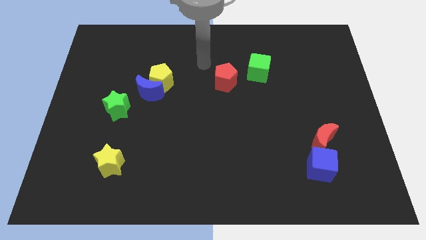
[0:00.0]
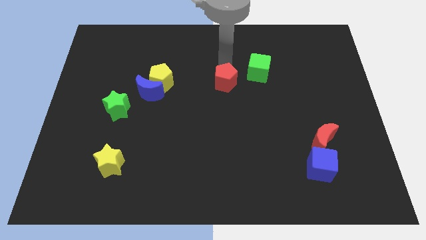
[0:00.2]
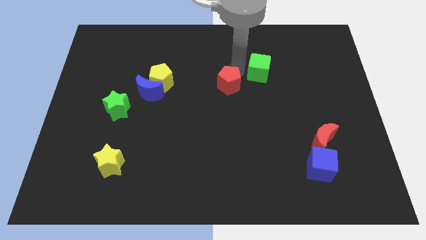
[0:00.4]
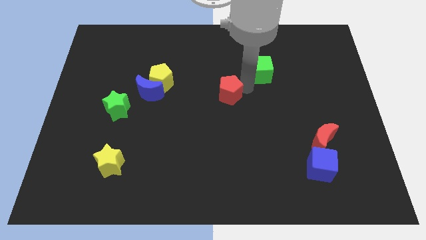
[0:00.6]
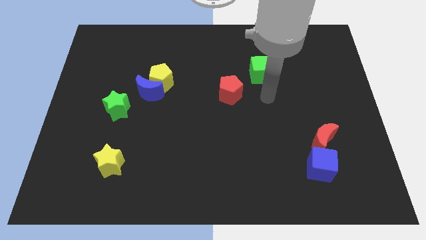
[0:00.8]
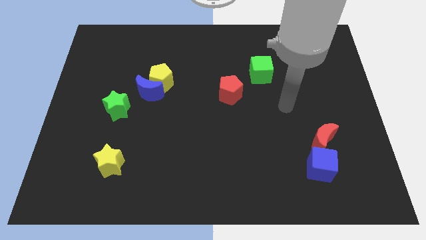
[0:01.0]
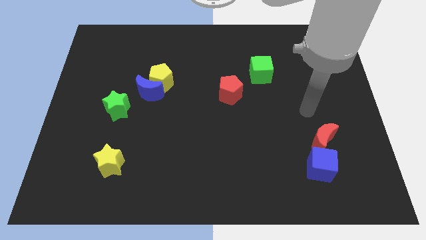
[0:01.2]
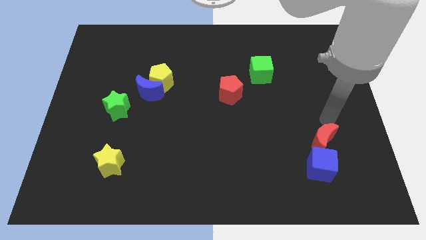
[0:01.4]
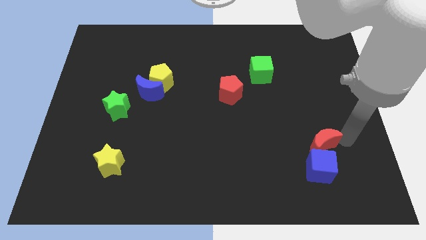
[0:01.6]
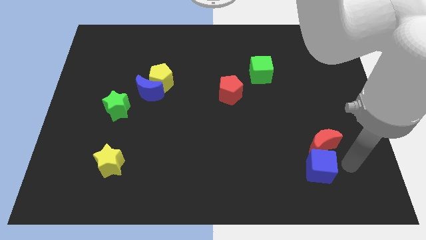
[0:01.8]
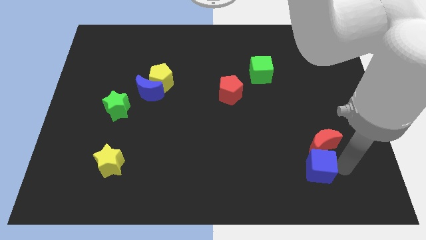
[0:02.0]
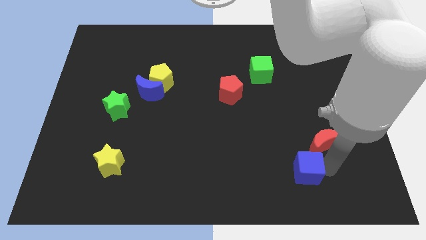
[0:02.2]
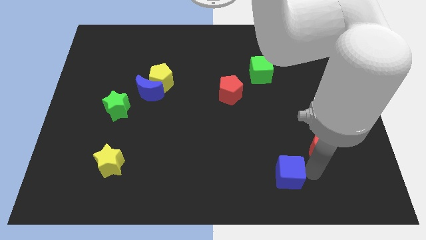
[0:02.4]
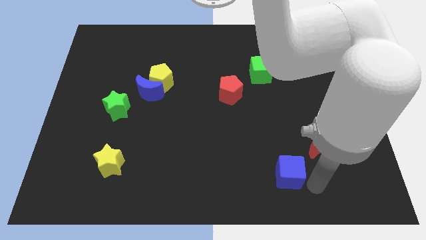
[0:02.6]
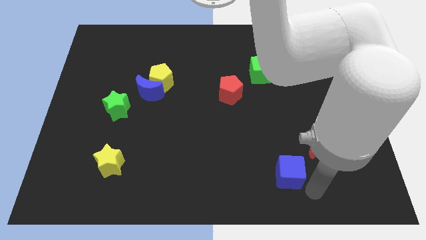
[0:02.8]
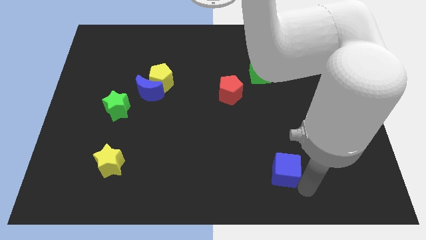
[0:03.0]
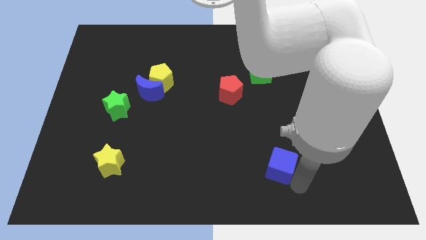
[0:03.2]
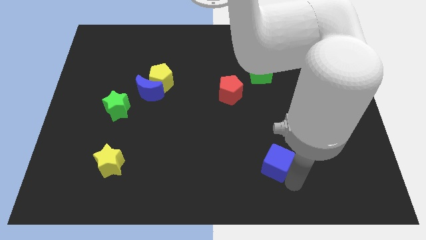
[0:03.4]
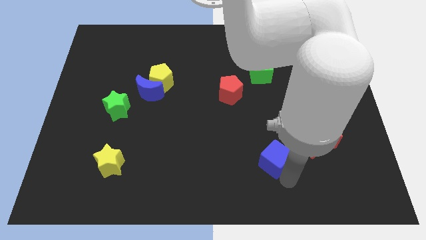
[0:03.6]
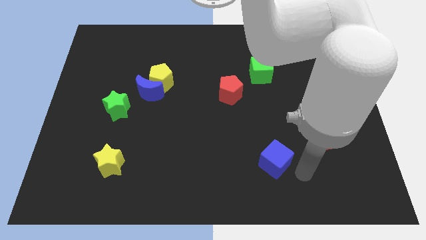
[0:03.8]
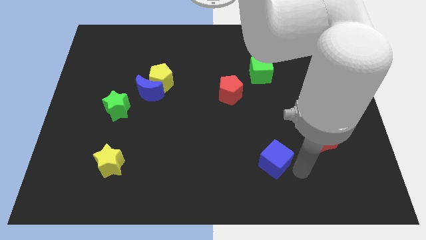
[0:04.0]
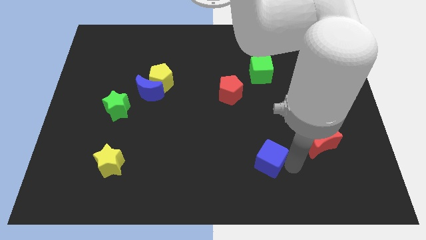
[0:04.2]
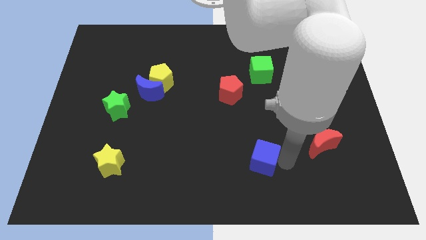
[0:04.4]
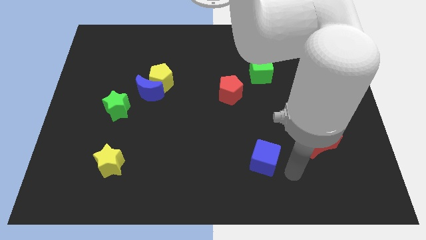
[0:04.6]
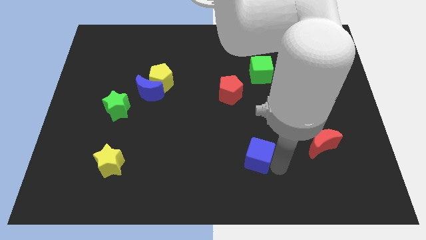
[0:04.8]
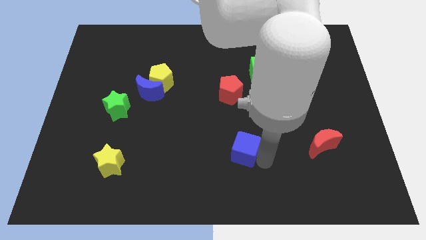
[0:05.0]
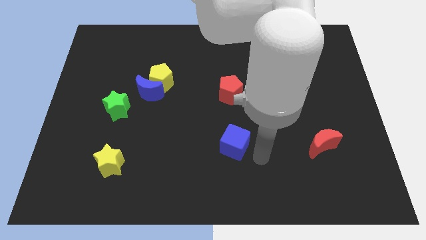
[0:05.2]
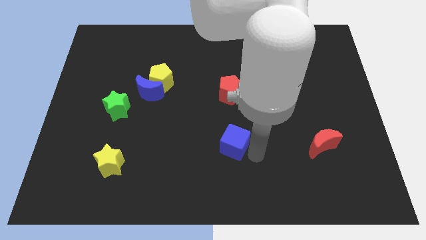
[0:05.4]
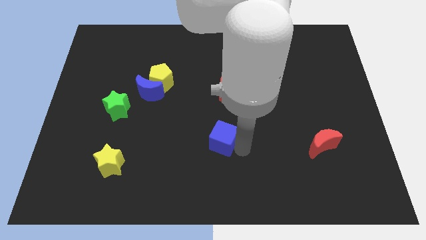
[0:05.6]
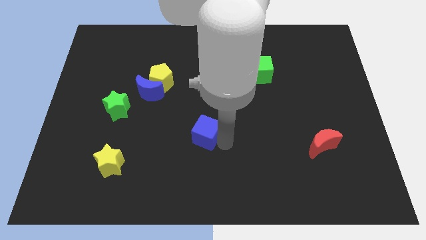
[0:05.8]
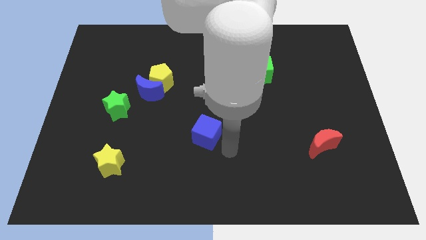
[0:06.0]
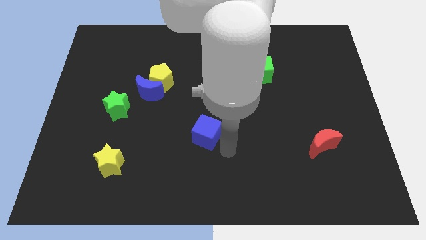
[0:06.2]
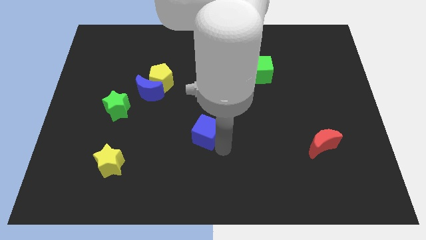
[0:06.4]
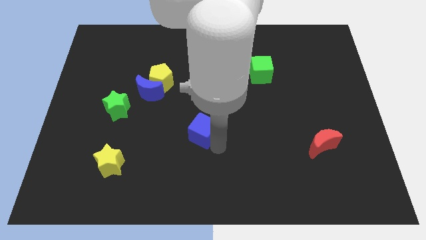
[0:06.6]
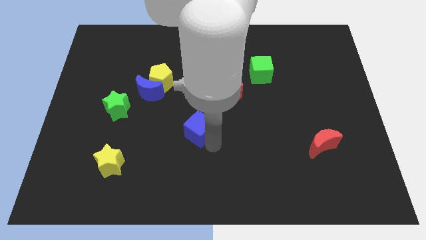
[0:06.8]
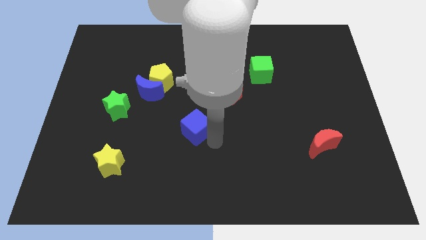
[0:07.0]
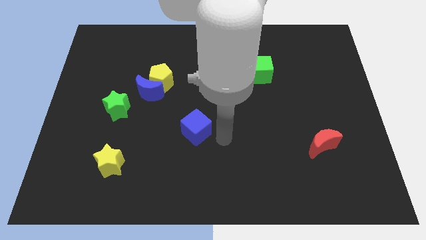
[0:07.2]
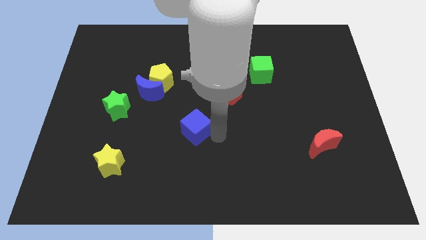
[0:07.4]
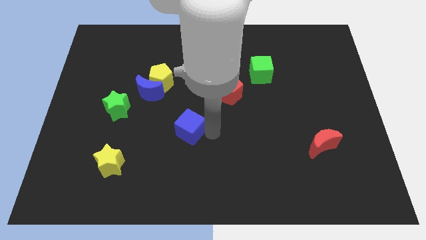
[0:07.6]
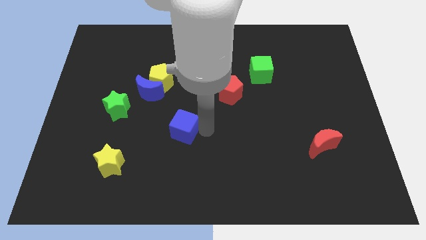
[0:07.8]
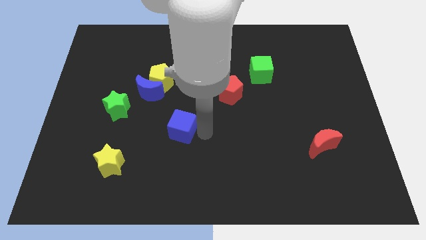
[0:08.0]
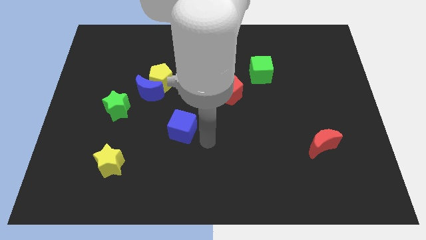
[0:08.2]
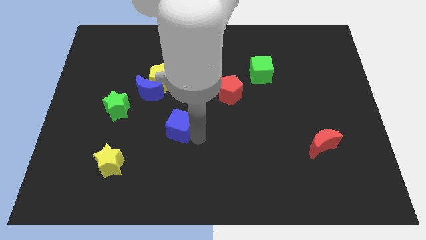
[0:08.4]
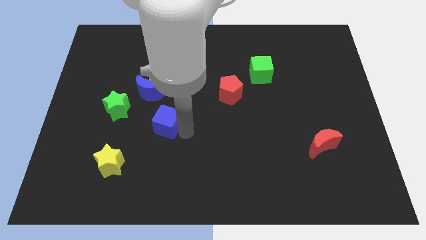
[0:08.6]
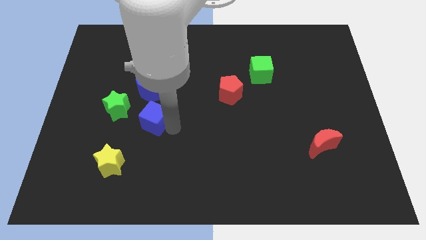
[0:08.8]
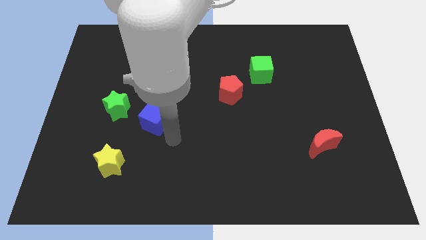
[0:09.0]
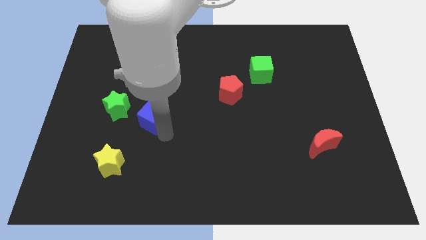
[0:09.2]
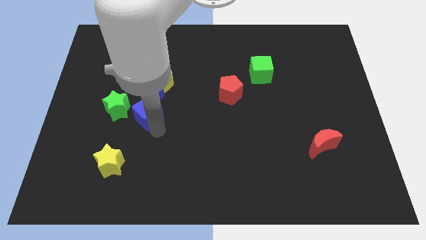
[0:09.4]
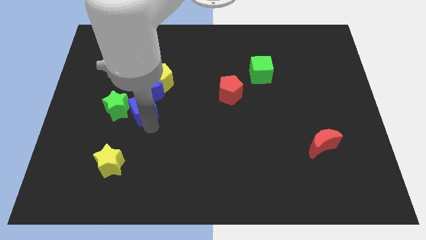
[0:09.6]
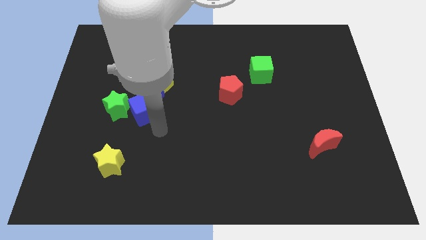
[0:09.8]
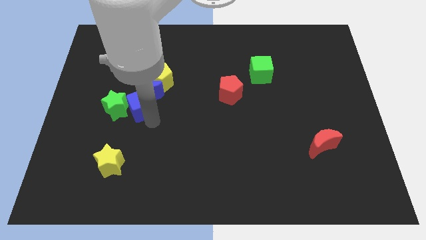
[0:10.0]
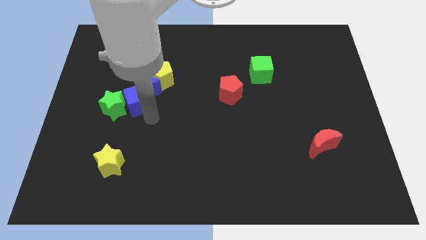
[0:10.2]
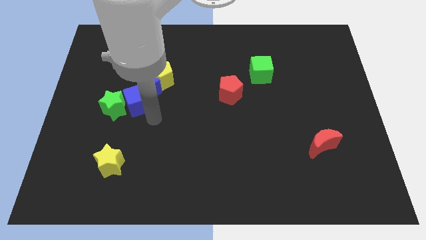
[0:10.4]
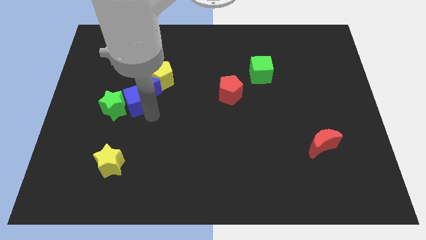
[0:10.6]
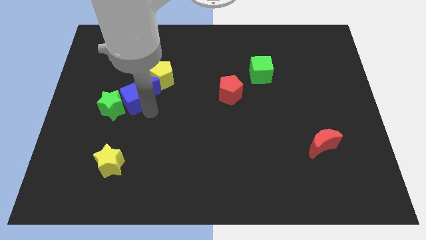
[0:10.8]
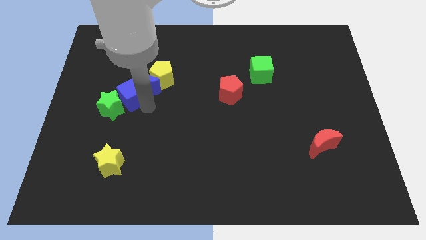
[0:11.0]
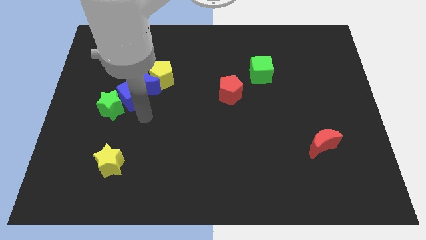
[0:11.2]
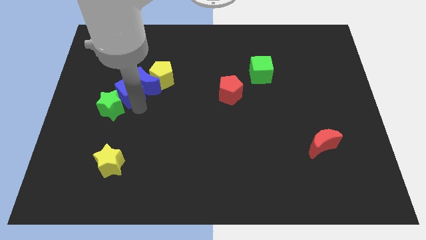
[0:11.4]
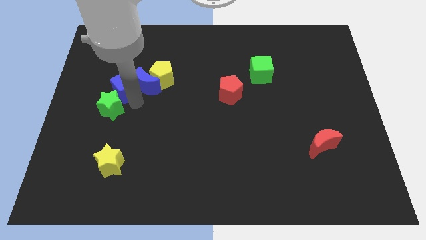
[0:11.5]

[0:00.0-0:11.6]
slide the blue cube left of the yellow pentagon

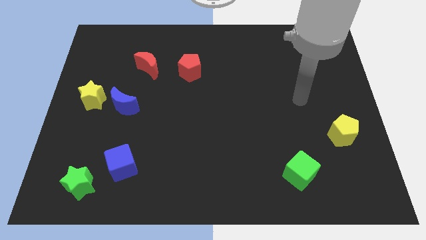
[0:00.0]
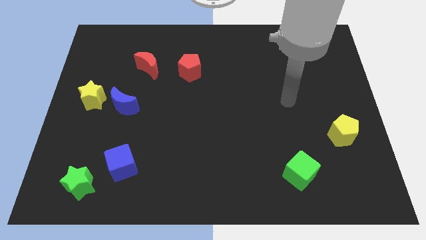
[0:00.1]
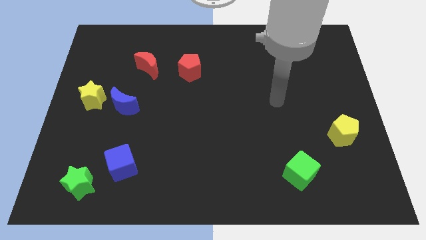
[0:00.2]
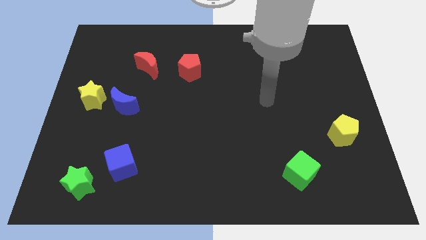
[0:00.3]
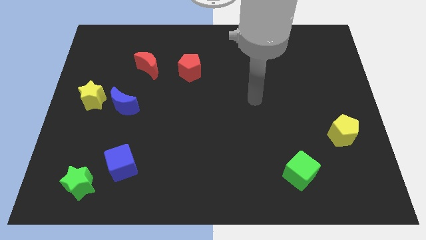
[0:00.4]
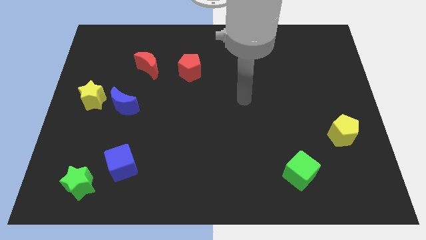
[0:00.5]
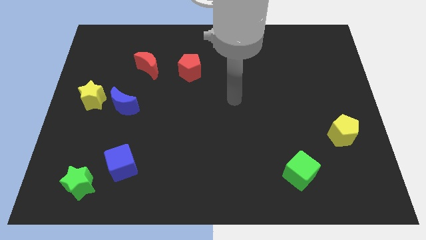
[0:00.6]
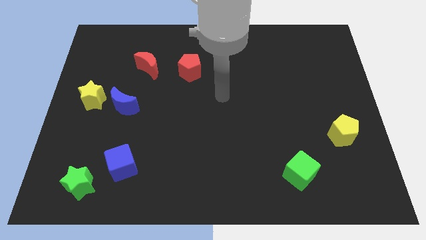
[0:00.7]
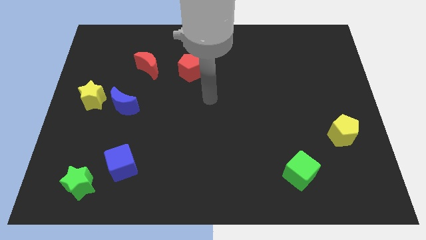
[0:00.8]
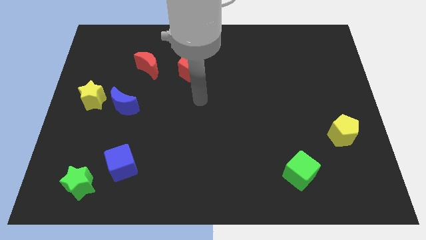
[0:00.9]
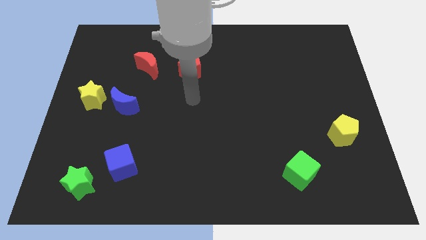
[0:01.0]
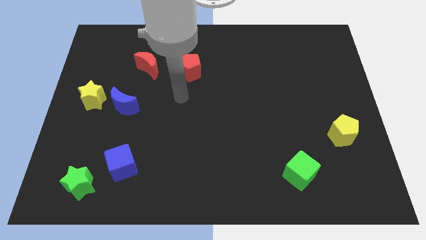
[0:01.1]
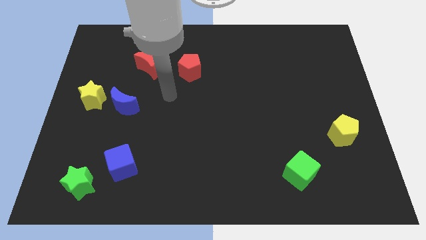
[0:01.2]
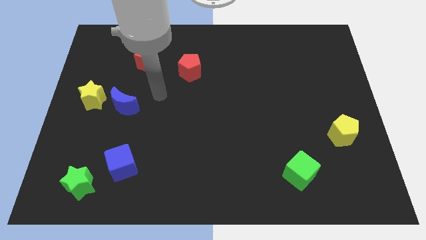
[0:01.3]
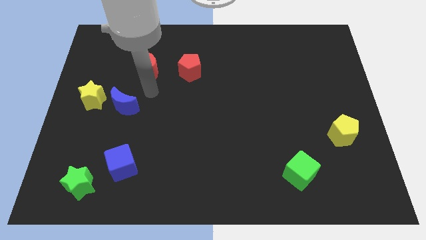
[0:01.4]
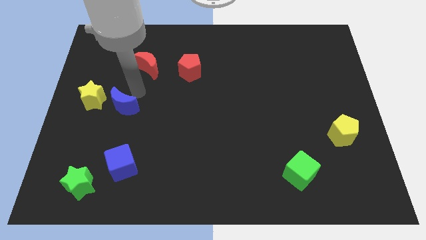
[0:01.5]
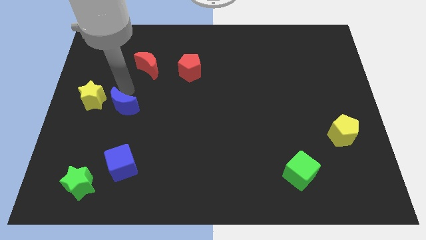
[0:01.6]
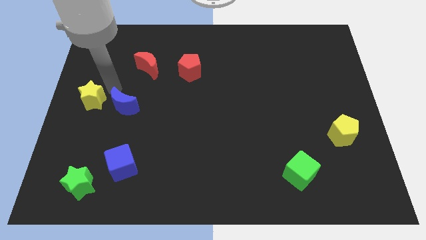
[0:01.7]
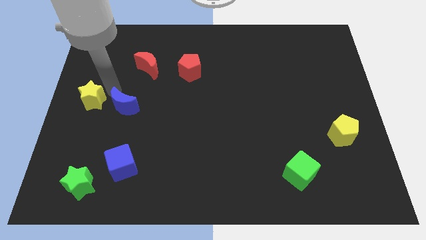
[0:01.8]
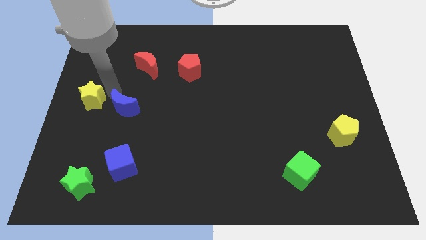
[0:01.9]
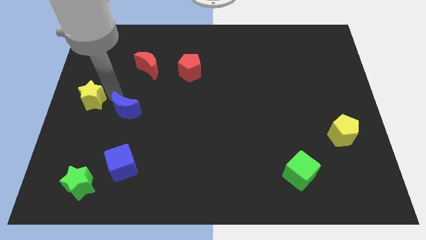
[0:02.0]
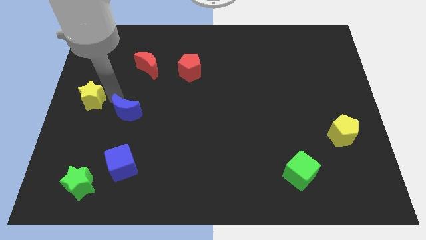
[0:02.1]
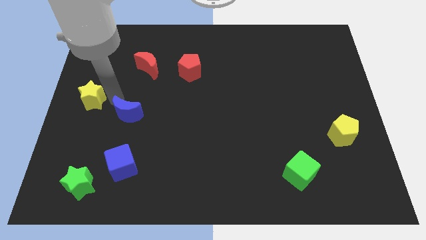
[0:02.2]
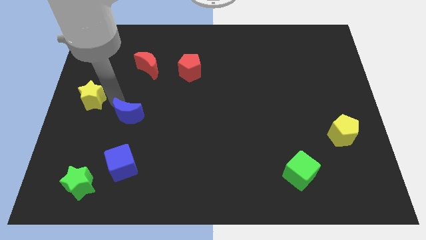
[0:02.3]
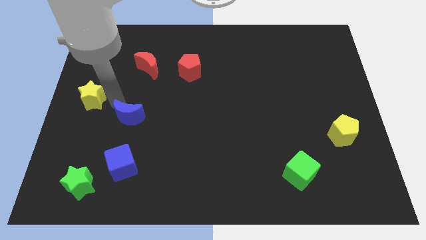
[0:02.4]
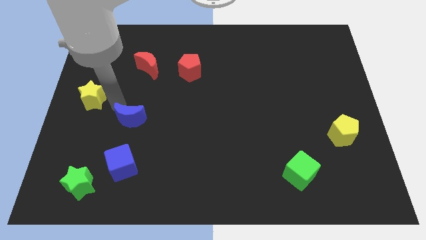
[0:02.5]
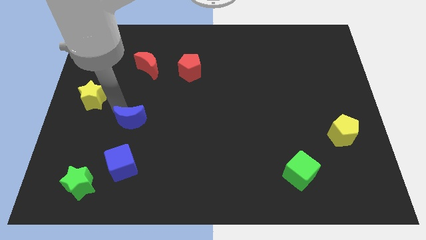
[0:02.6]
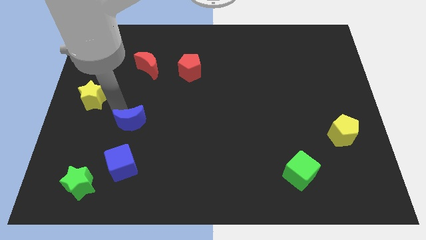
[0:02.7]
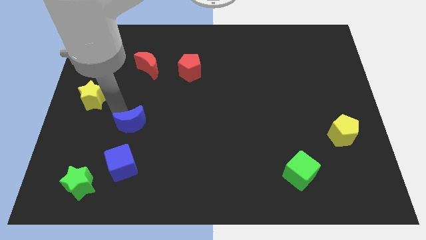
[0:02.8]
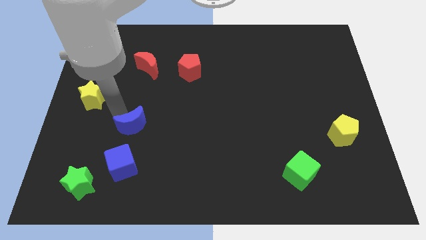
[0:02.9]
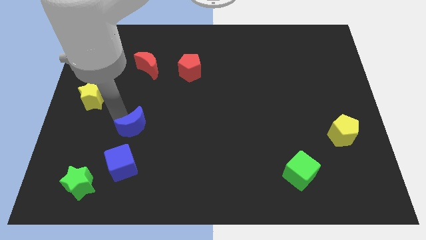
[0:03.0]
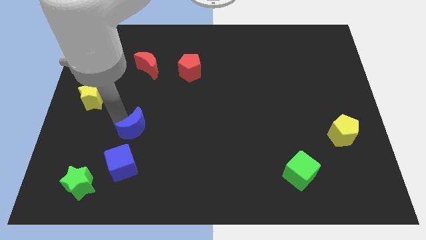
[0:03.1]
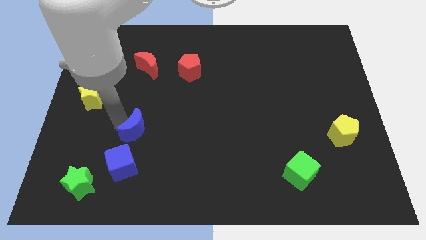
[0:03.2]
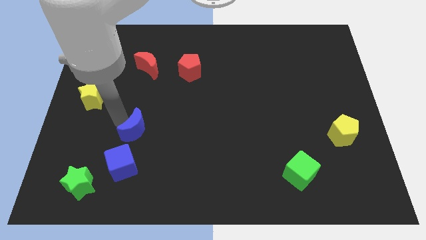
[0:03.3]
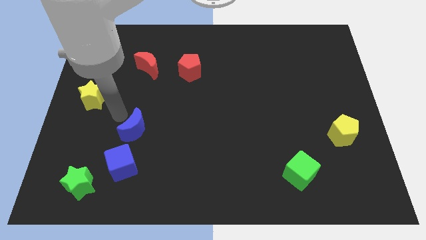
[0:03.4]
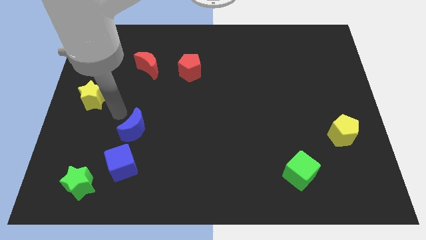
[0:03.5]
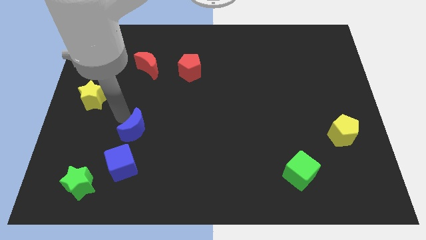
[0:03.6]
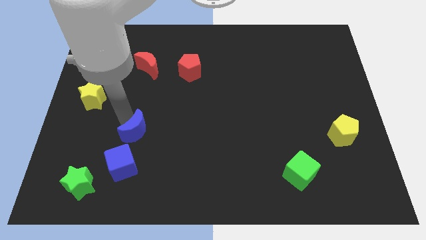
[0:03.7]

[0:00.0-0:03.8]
slide the blue moon to the top right side of the blue cube
